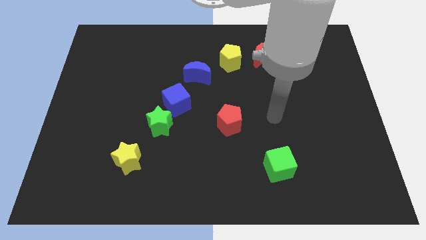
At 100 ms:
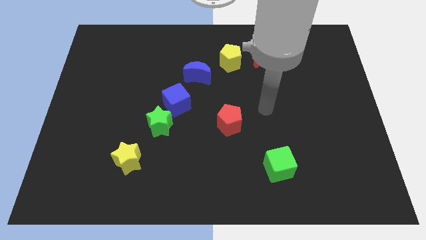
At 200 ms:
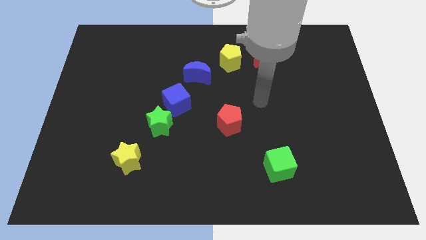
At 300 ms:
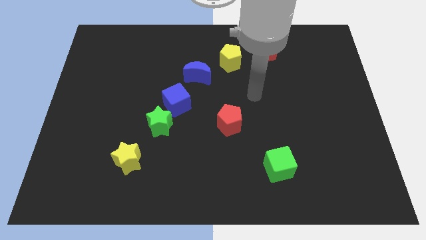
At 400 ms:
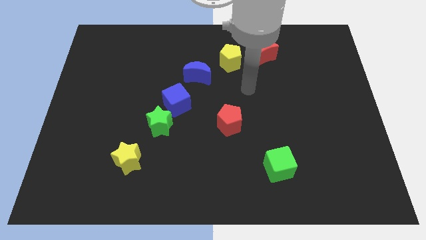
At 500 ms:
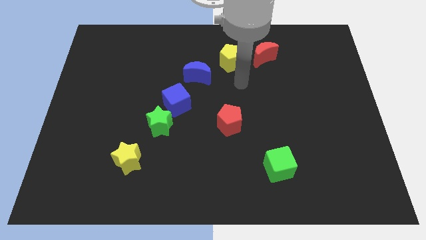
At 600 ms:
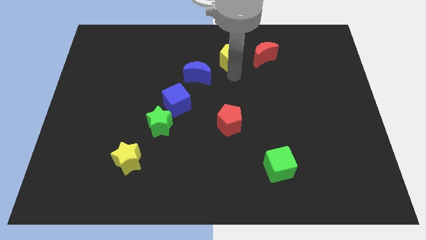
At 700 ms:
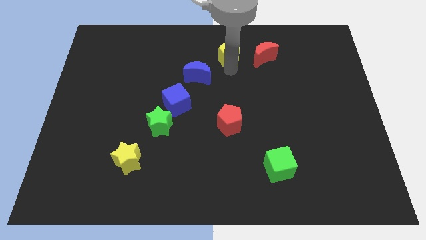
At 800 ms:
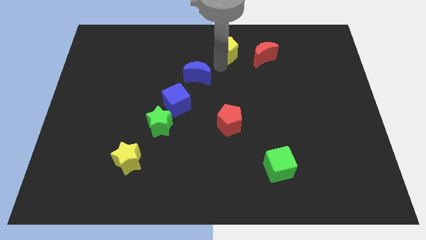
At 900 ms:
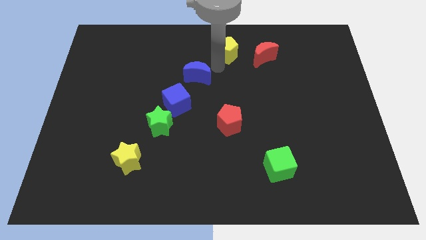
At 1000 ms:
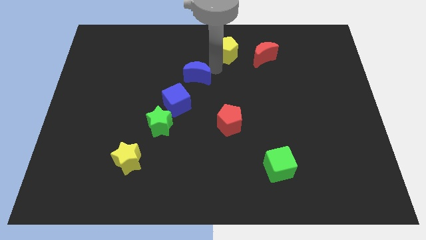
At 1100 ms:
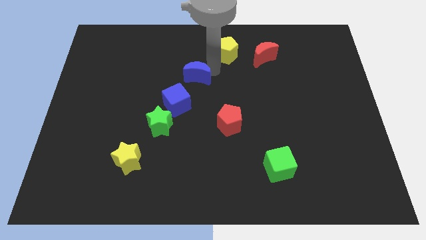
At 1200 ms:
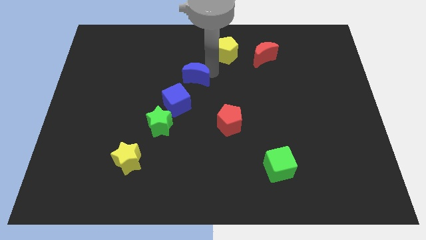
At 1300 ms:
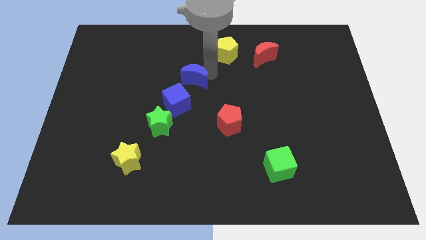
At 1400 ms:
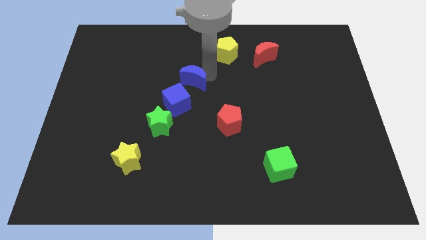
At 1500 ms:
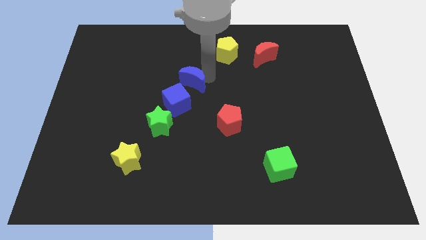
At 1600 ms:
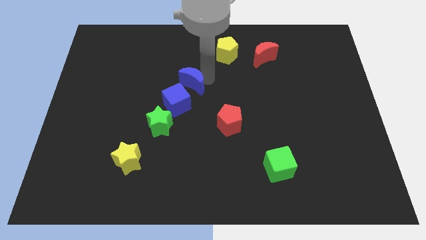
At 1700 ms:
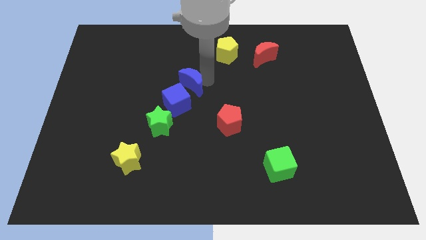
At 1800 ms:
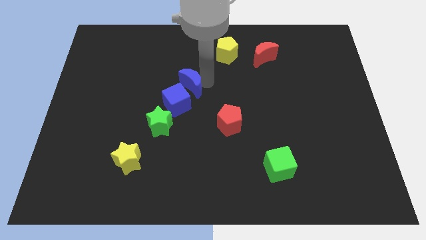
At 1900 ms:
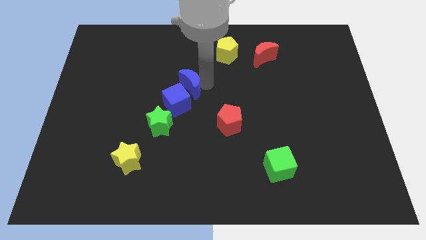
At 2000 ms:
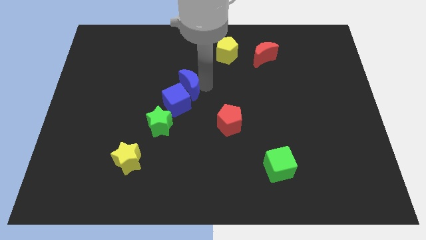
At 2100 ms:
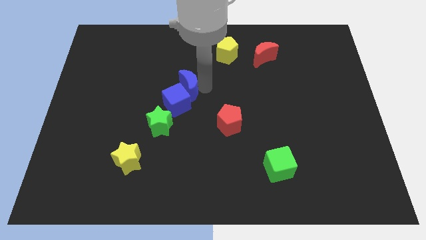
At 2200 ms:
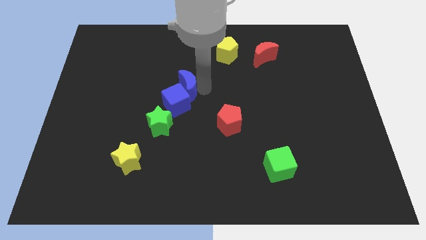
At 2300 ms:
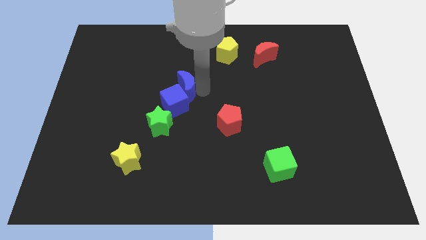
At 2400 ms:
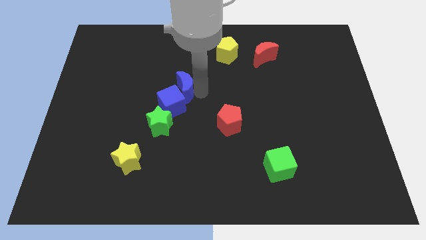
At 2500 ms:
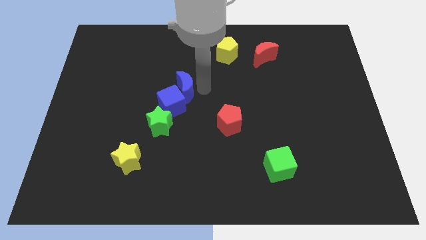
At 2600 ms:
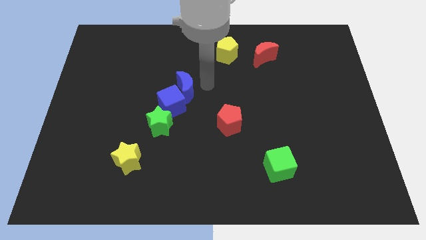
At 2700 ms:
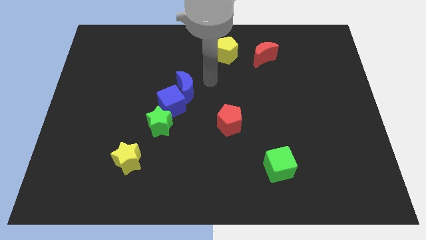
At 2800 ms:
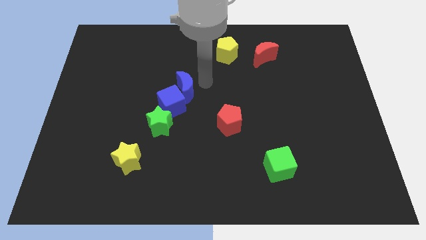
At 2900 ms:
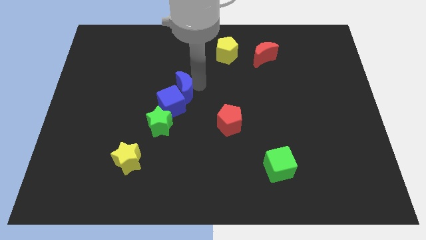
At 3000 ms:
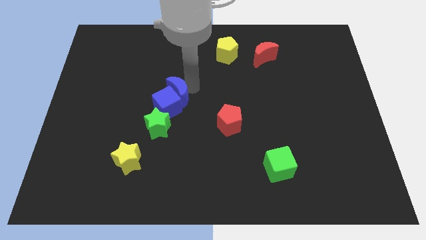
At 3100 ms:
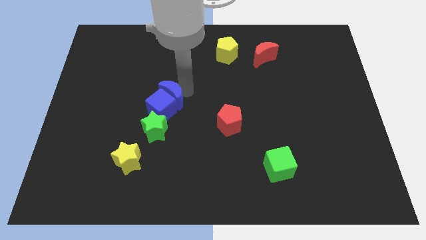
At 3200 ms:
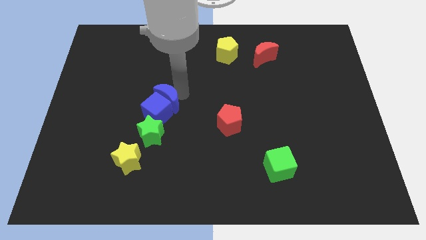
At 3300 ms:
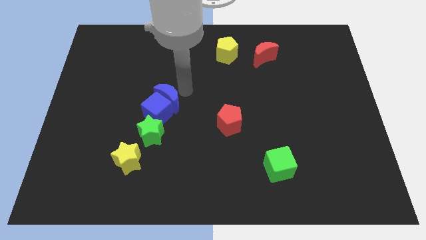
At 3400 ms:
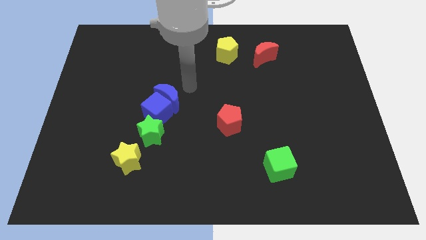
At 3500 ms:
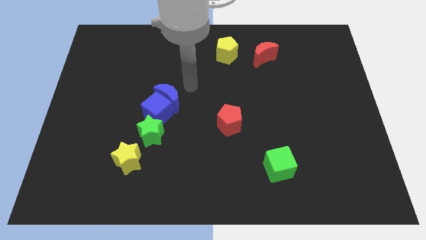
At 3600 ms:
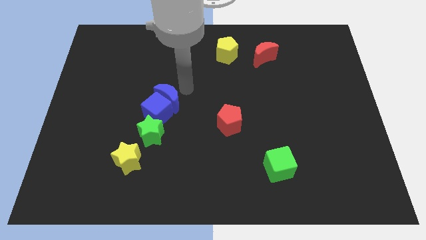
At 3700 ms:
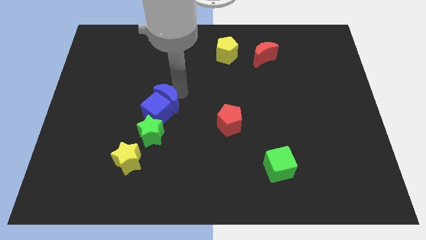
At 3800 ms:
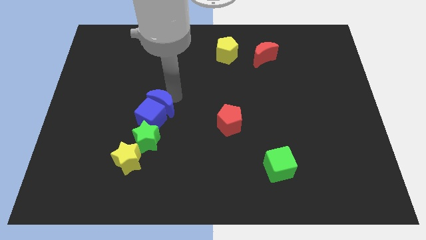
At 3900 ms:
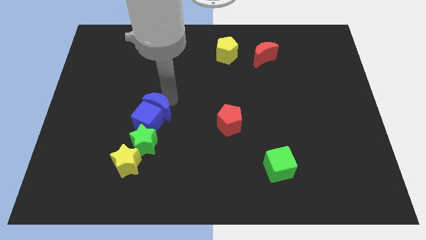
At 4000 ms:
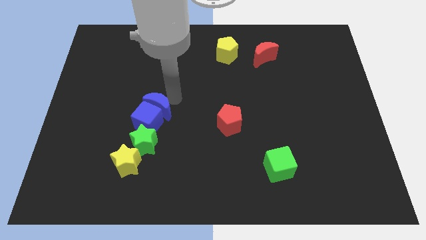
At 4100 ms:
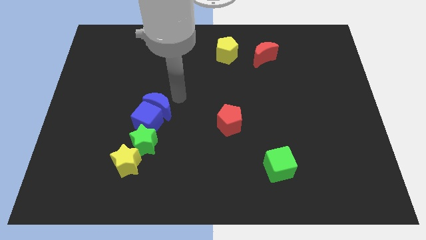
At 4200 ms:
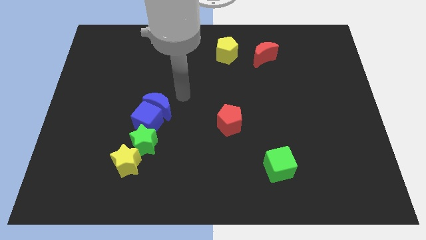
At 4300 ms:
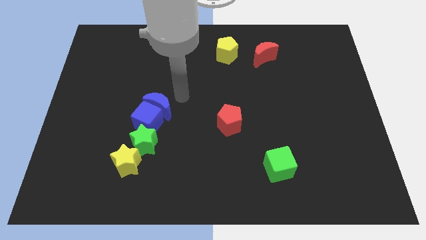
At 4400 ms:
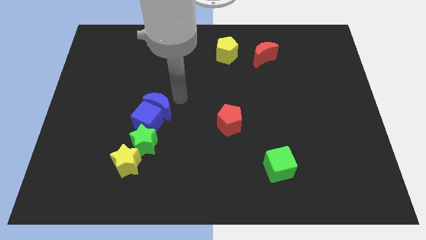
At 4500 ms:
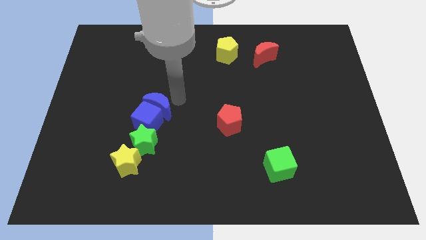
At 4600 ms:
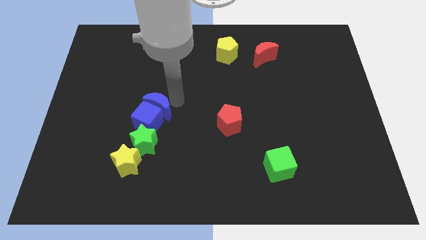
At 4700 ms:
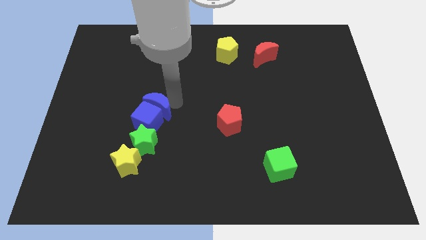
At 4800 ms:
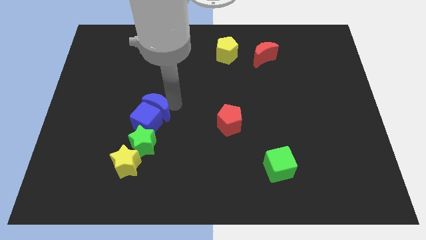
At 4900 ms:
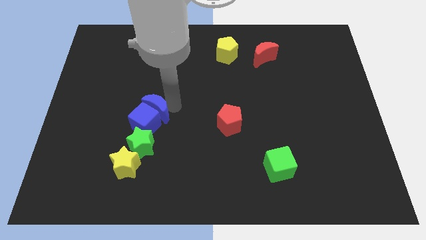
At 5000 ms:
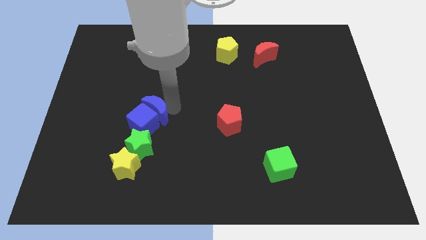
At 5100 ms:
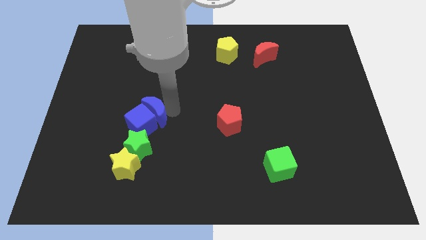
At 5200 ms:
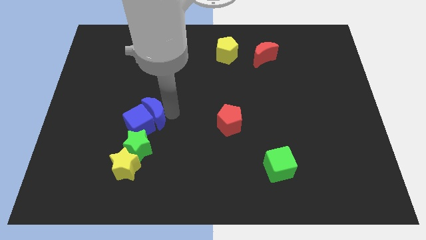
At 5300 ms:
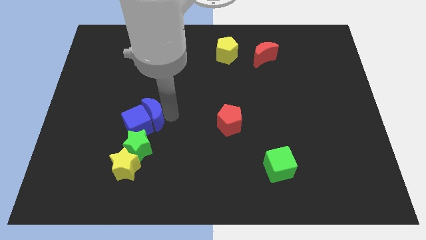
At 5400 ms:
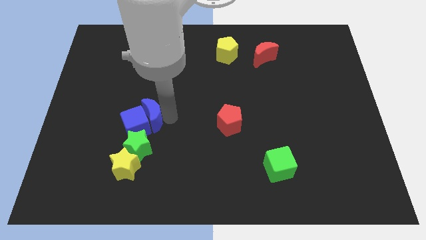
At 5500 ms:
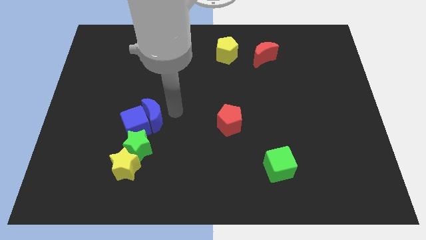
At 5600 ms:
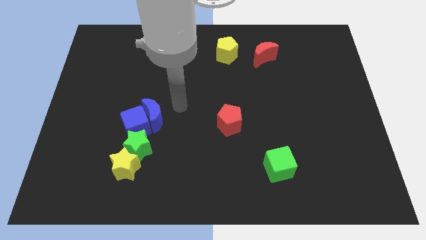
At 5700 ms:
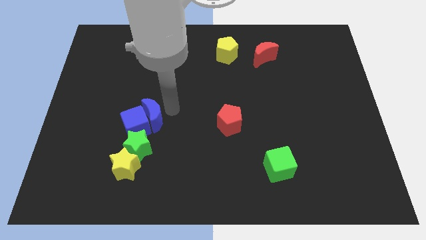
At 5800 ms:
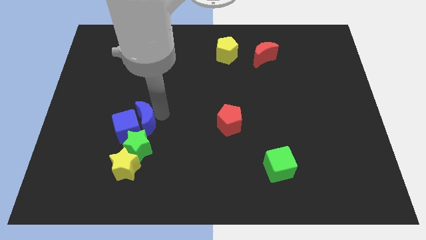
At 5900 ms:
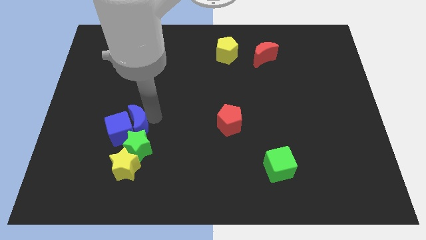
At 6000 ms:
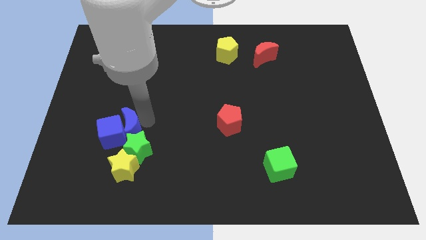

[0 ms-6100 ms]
move the blue moon diagonally down and left

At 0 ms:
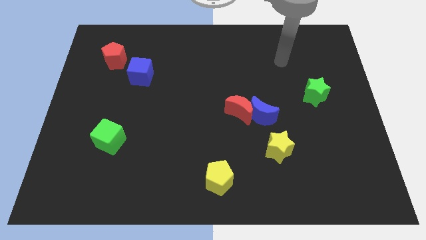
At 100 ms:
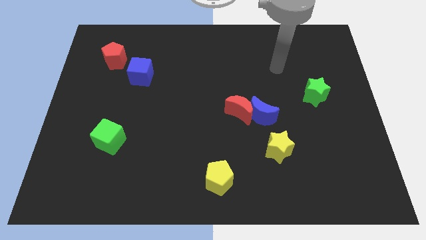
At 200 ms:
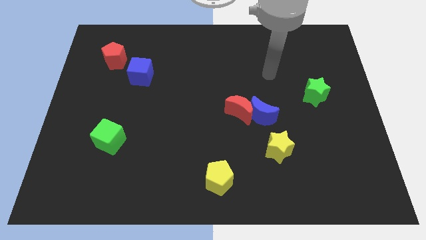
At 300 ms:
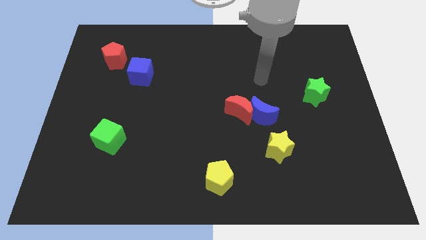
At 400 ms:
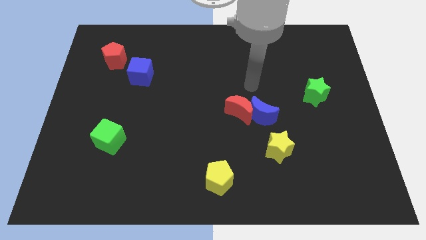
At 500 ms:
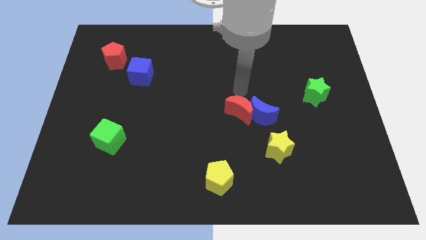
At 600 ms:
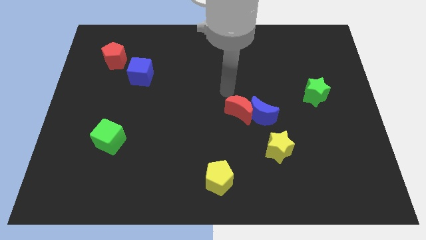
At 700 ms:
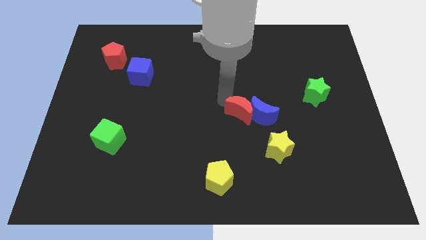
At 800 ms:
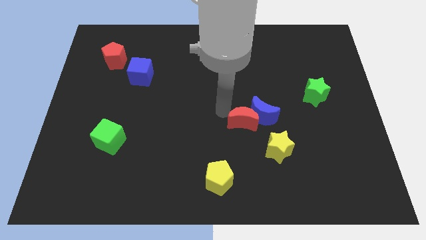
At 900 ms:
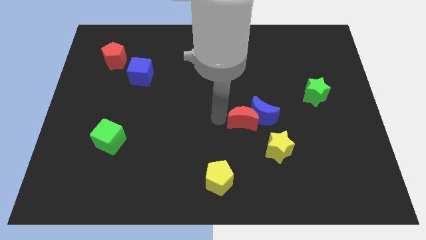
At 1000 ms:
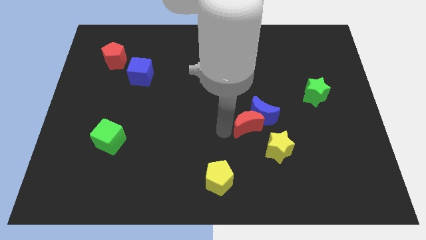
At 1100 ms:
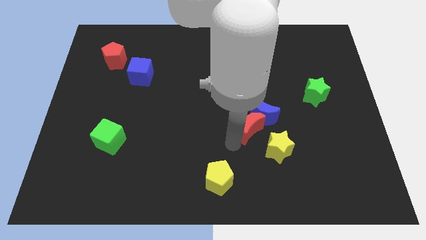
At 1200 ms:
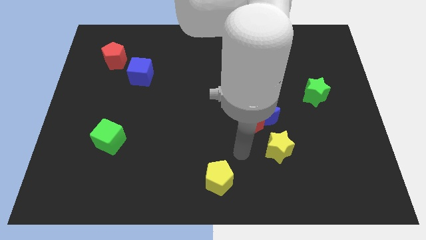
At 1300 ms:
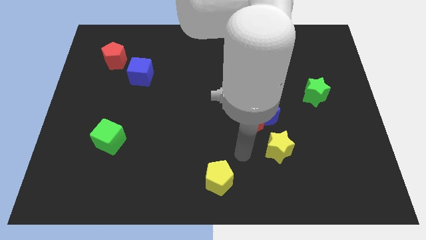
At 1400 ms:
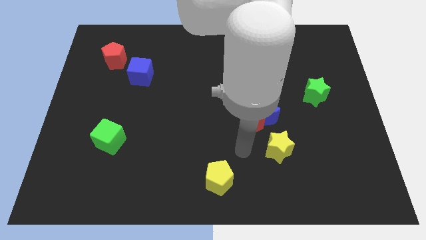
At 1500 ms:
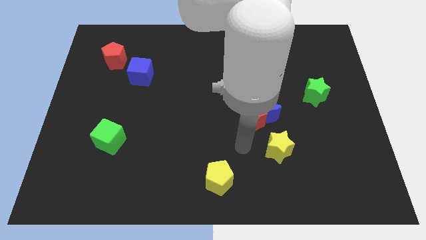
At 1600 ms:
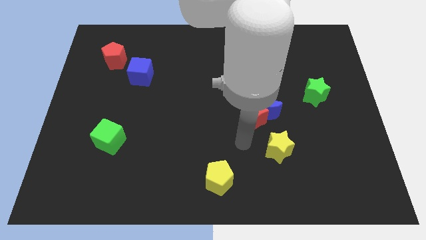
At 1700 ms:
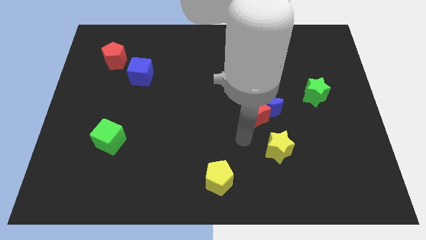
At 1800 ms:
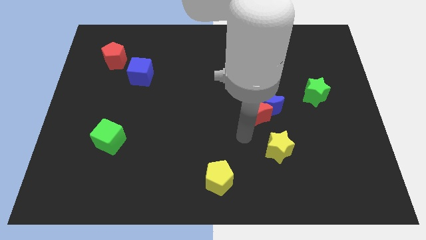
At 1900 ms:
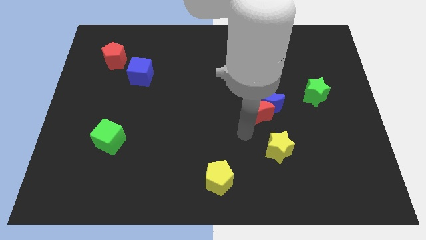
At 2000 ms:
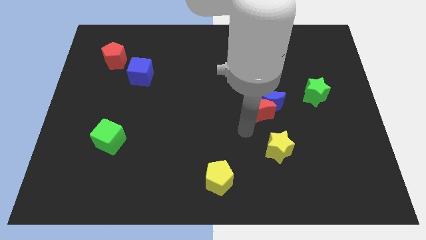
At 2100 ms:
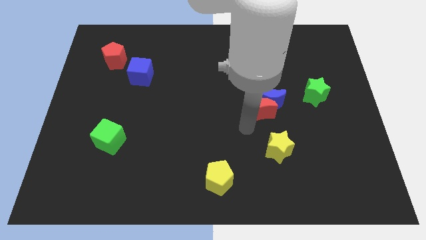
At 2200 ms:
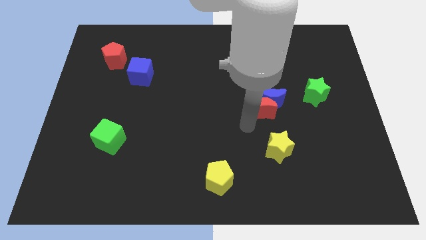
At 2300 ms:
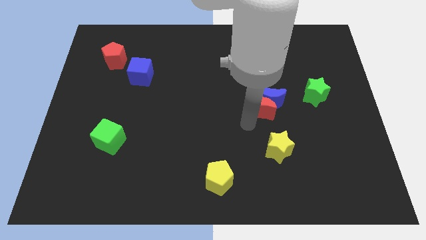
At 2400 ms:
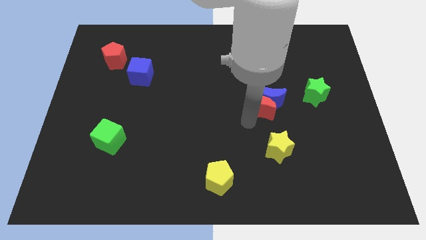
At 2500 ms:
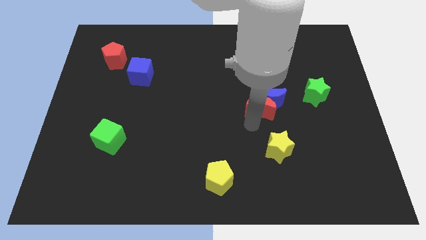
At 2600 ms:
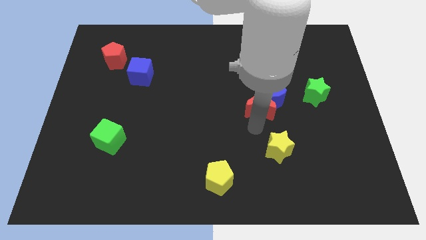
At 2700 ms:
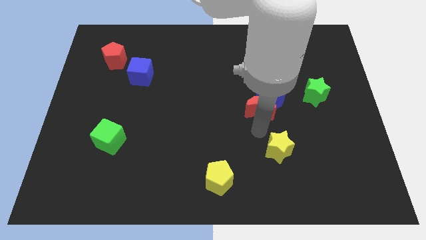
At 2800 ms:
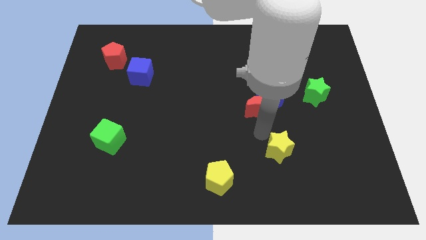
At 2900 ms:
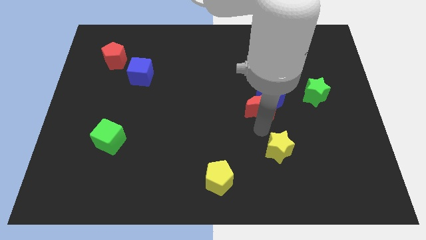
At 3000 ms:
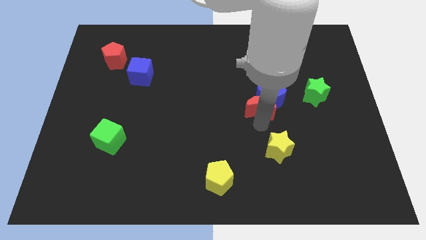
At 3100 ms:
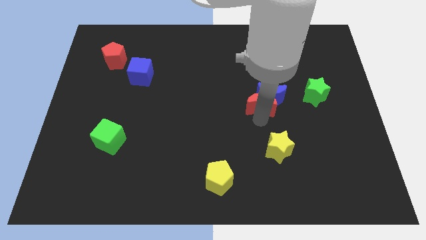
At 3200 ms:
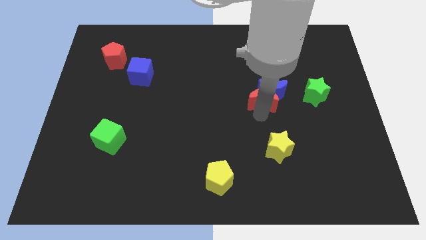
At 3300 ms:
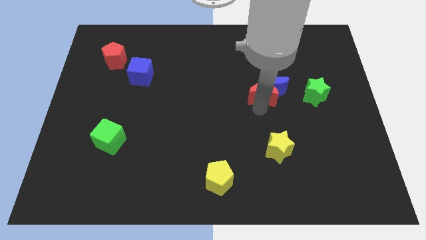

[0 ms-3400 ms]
slightly slide the red moon upwards and then to the right
